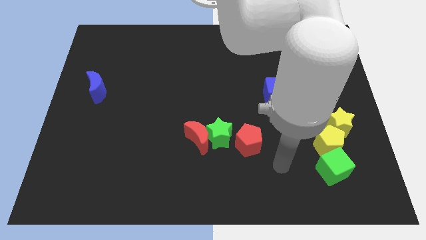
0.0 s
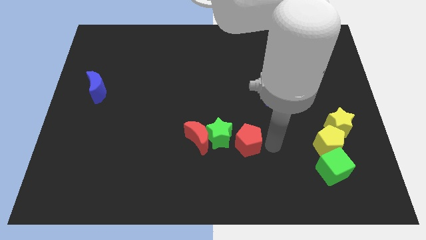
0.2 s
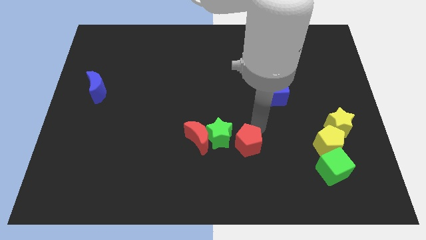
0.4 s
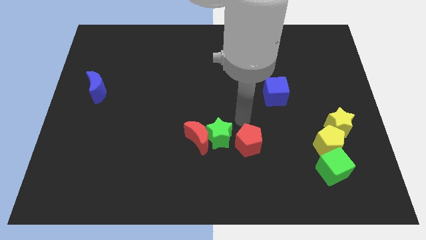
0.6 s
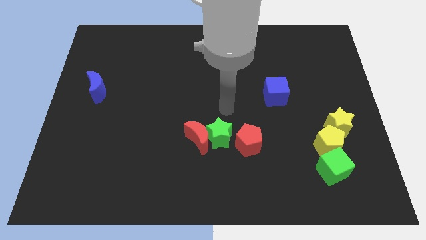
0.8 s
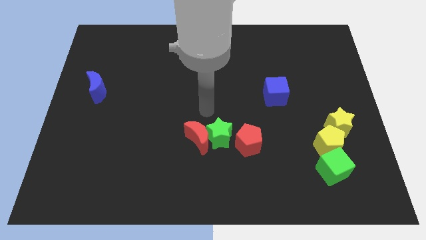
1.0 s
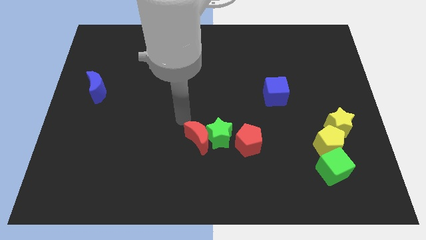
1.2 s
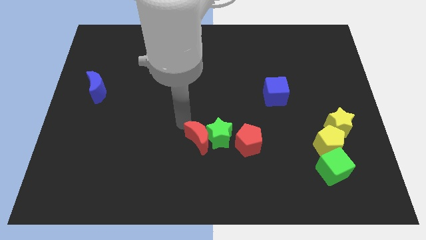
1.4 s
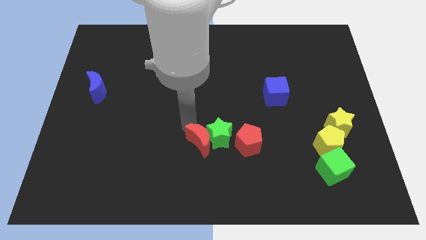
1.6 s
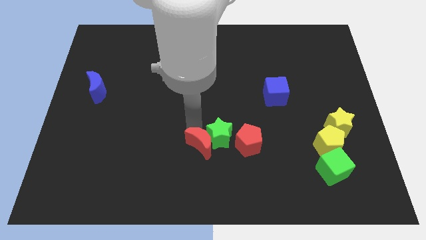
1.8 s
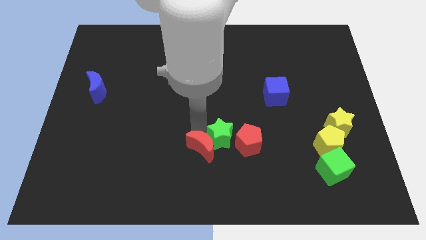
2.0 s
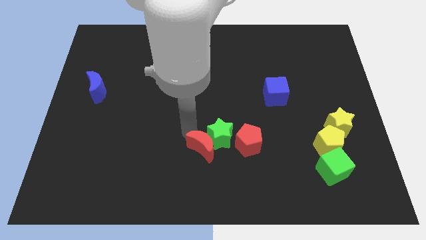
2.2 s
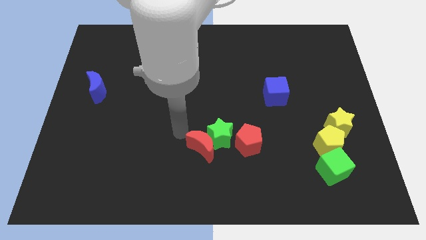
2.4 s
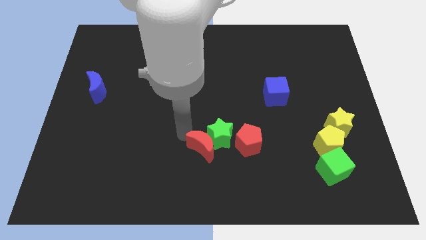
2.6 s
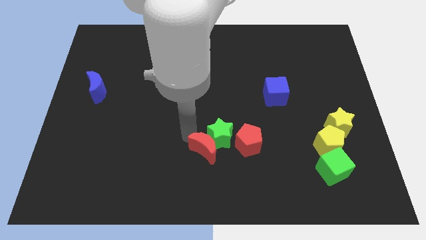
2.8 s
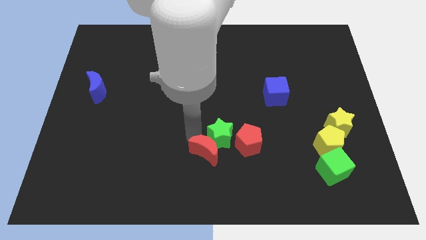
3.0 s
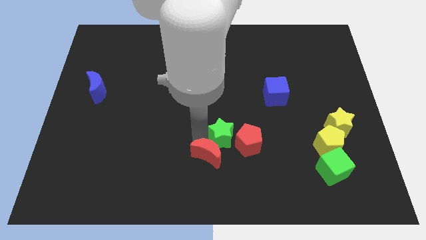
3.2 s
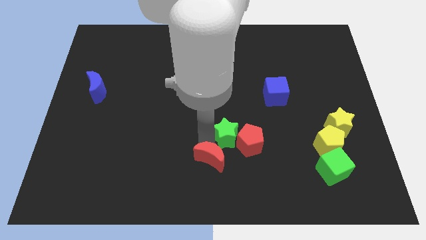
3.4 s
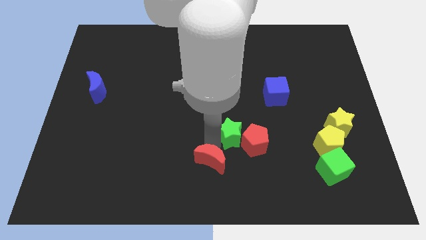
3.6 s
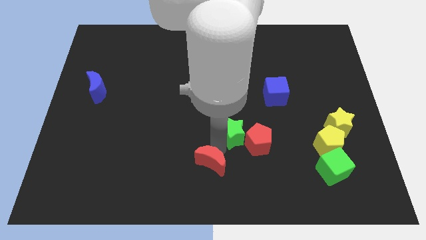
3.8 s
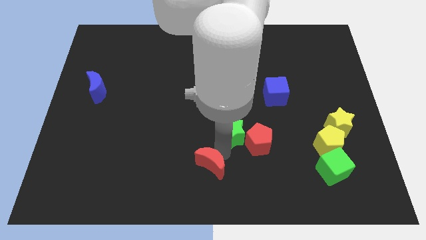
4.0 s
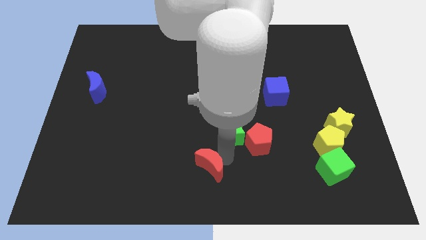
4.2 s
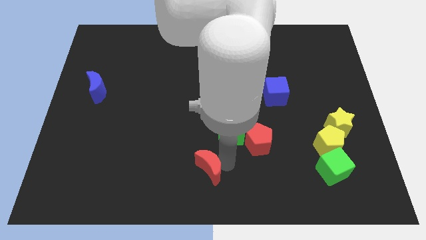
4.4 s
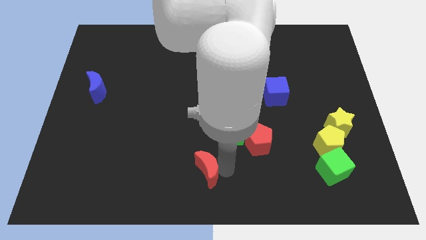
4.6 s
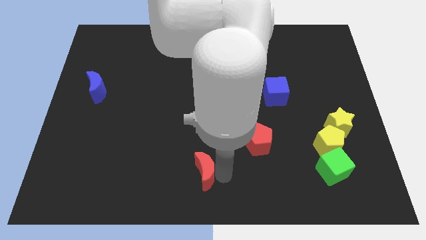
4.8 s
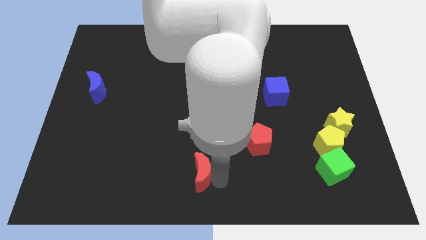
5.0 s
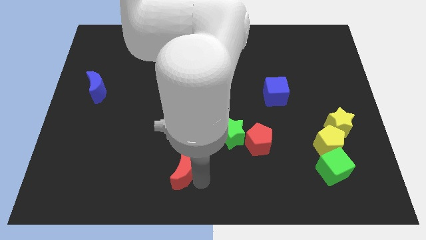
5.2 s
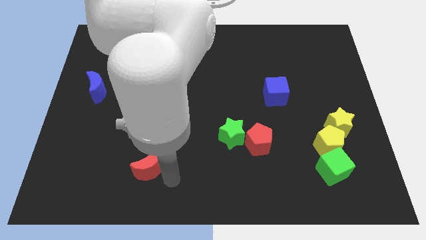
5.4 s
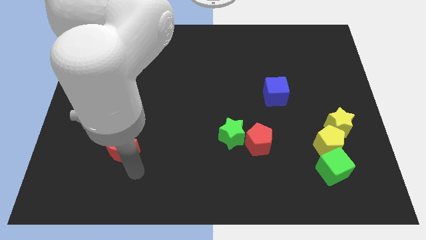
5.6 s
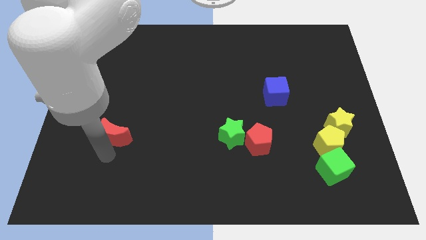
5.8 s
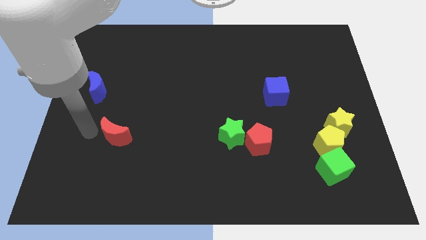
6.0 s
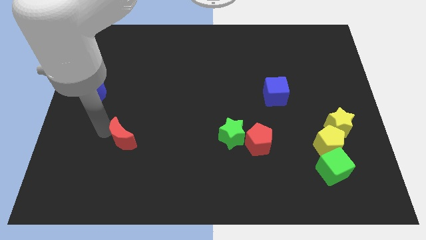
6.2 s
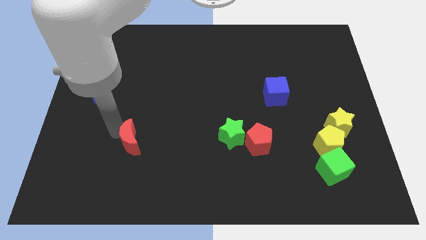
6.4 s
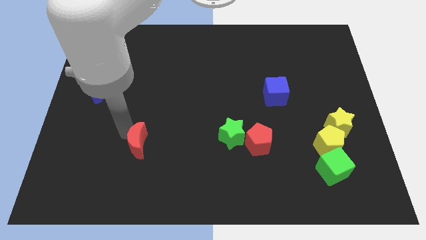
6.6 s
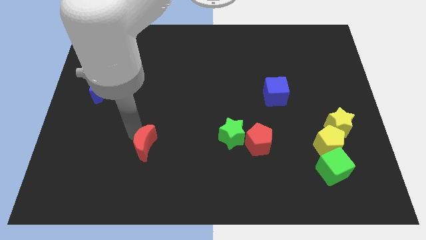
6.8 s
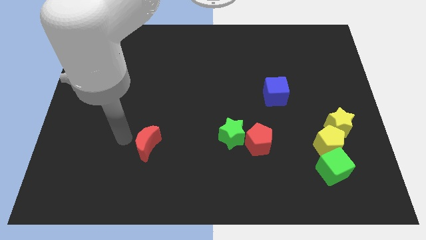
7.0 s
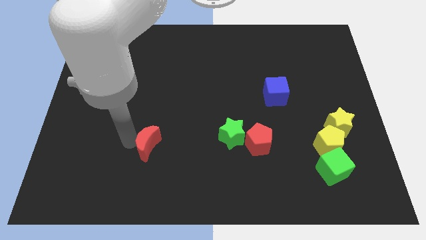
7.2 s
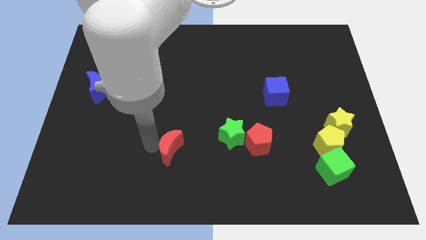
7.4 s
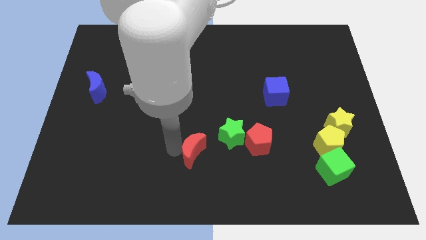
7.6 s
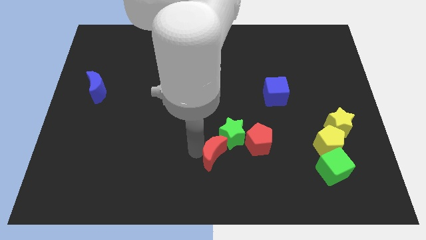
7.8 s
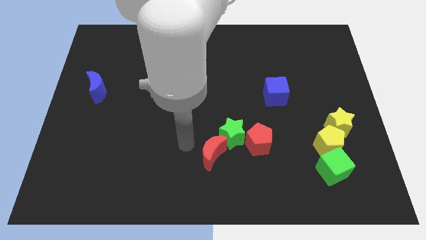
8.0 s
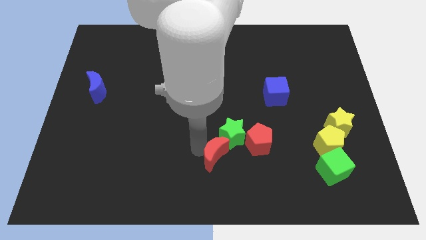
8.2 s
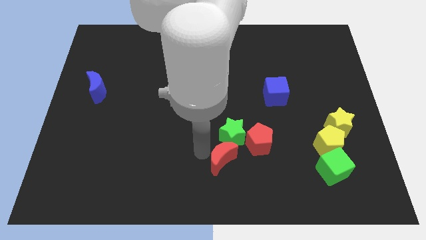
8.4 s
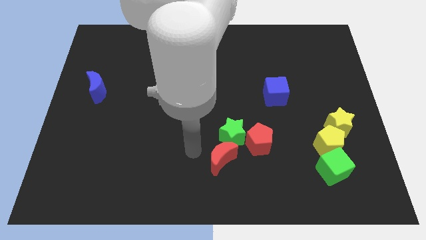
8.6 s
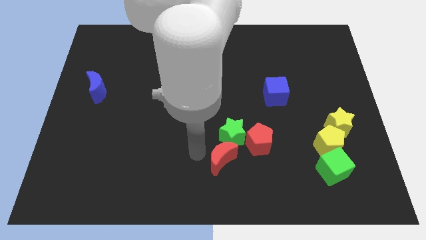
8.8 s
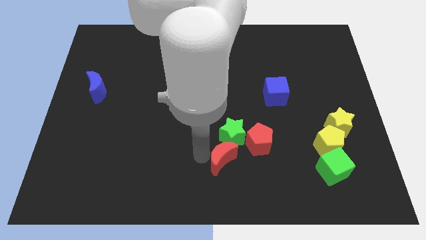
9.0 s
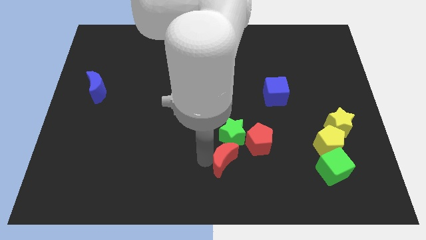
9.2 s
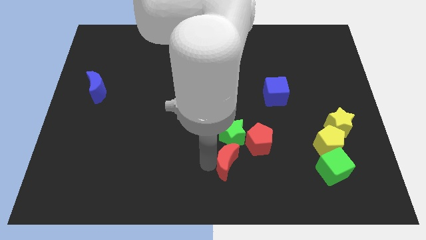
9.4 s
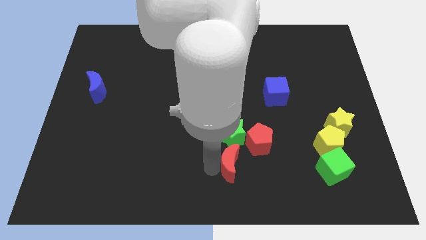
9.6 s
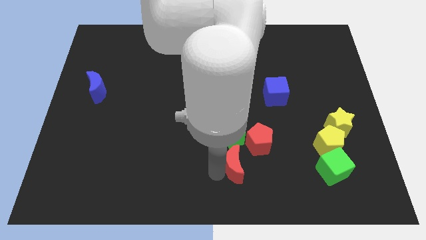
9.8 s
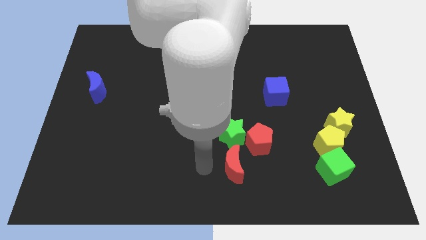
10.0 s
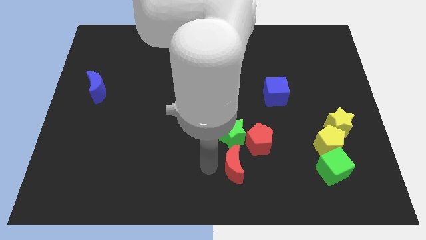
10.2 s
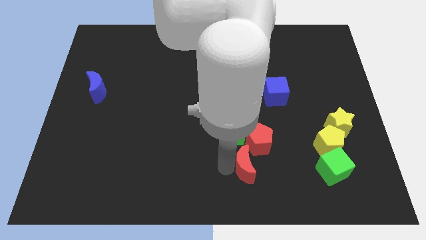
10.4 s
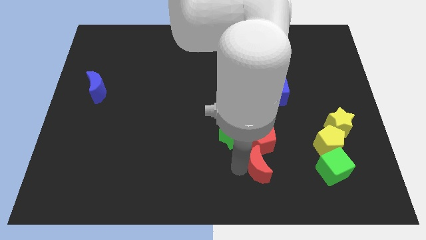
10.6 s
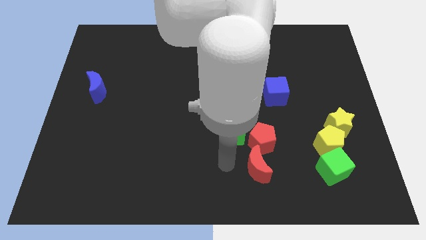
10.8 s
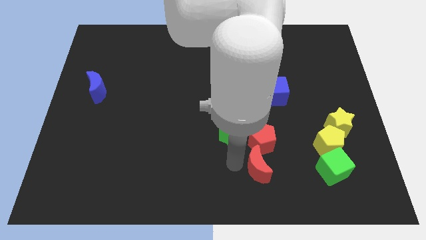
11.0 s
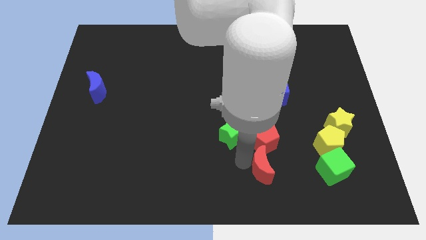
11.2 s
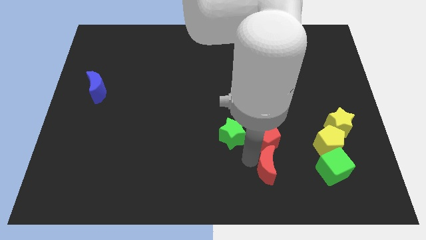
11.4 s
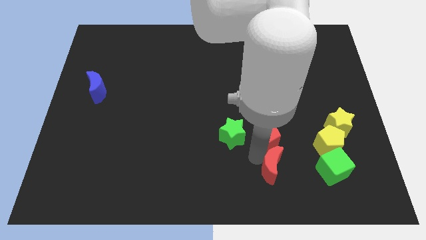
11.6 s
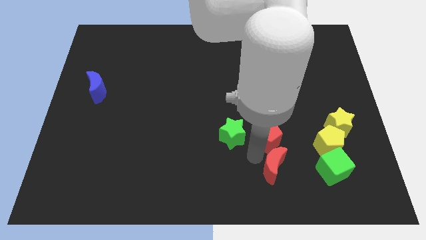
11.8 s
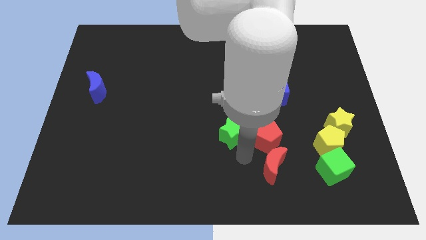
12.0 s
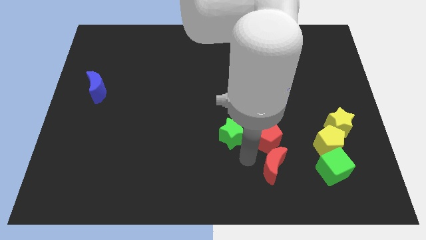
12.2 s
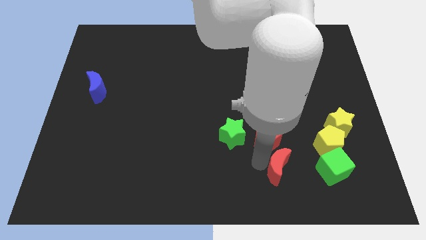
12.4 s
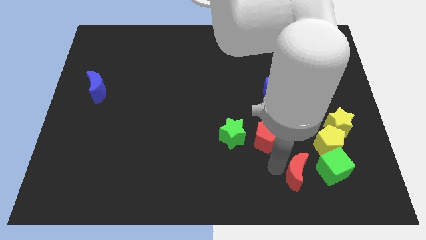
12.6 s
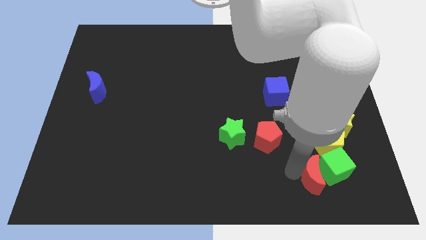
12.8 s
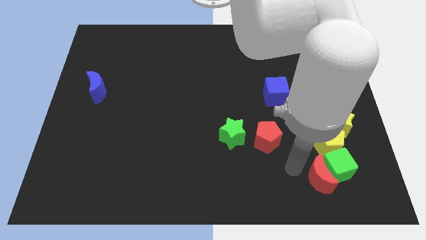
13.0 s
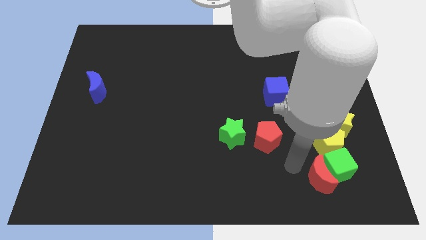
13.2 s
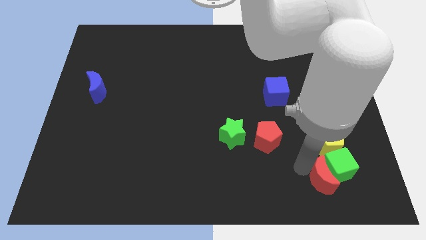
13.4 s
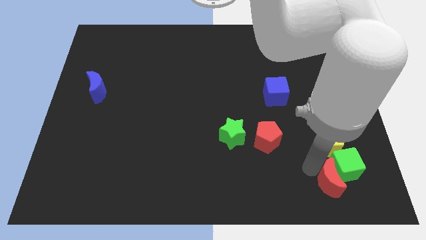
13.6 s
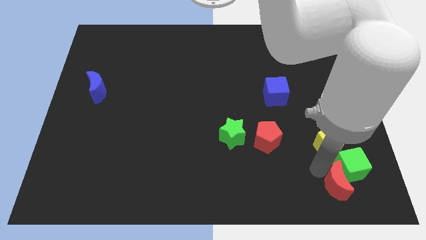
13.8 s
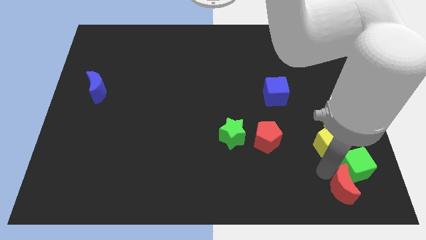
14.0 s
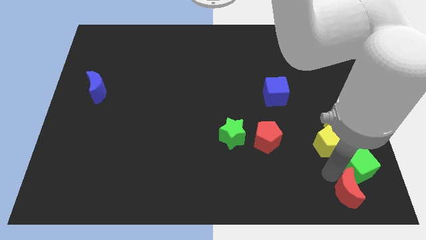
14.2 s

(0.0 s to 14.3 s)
move the red moon to the bottom right corner
